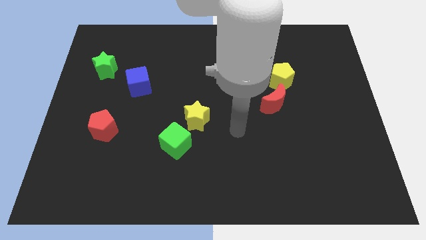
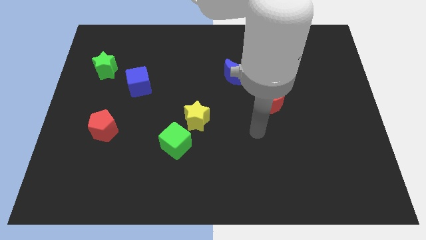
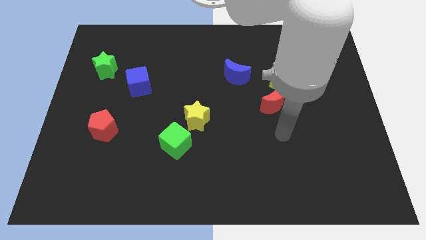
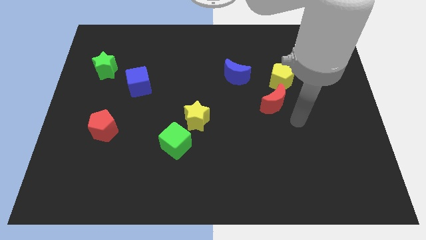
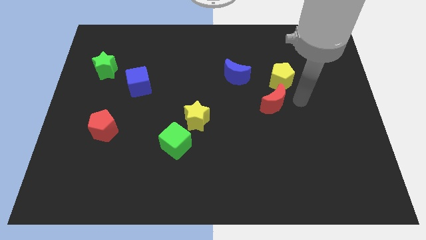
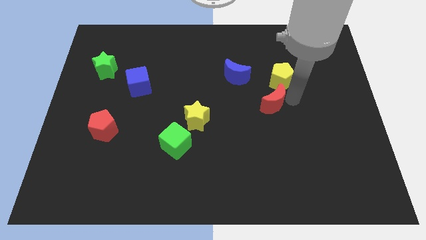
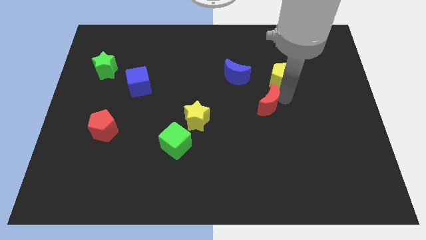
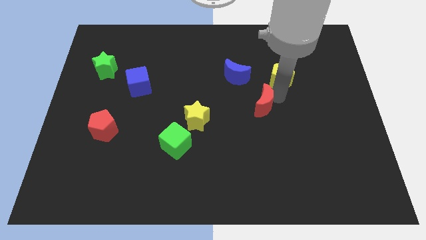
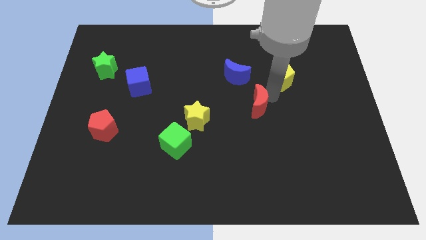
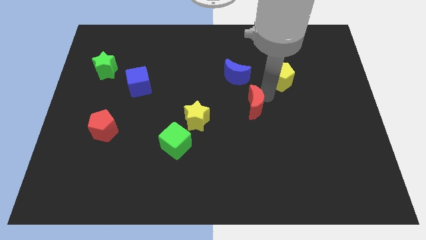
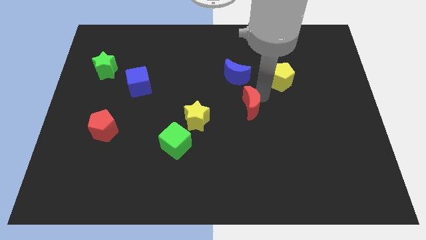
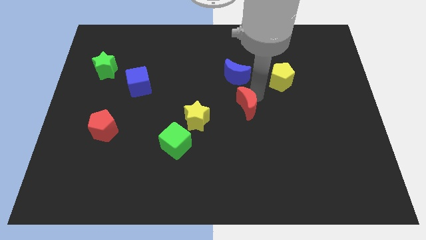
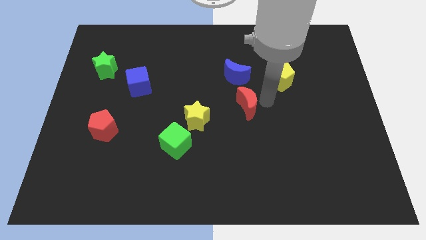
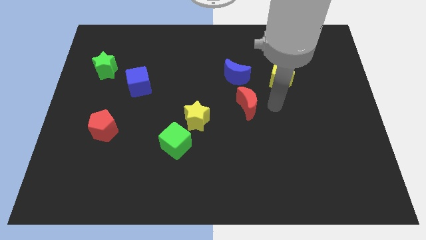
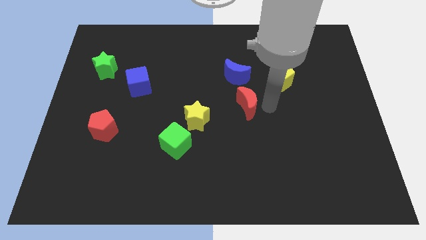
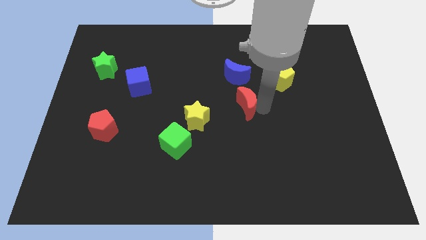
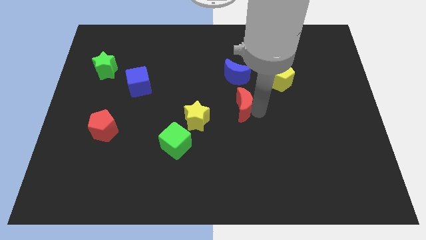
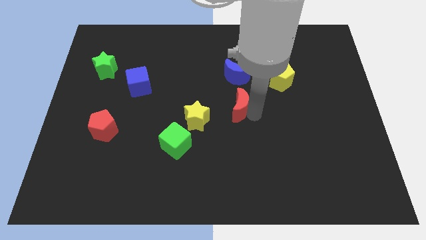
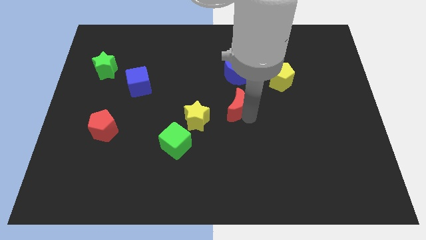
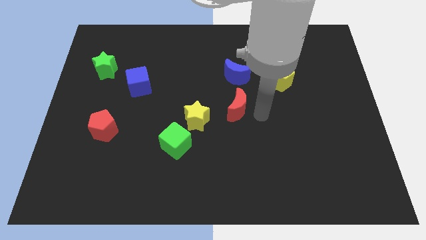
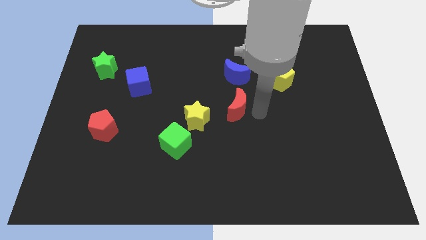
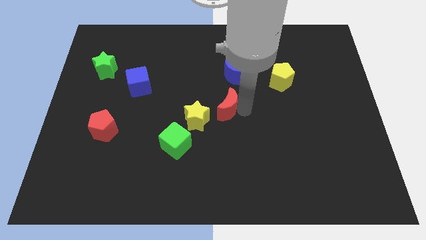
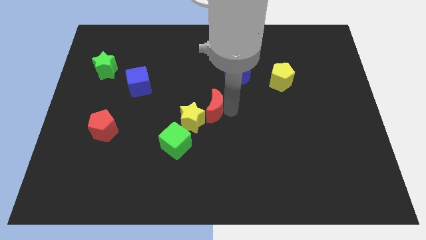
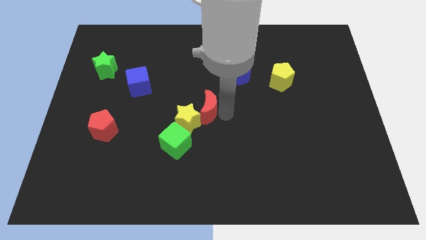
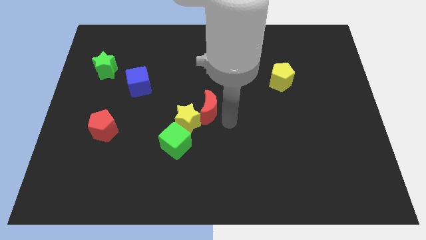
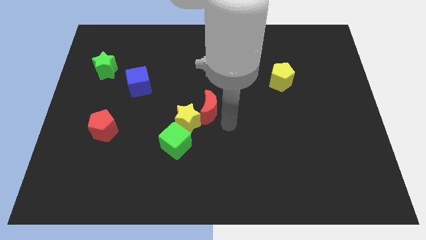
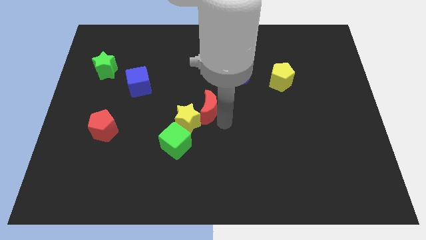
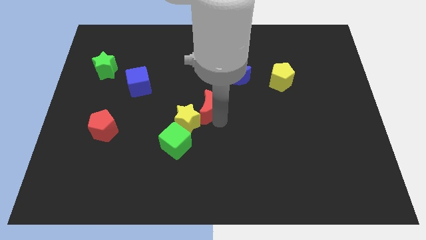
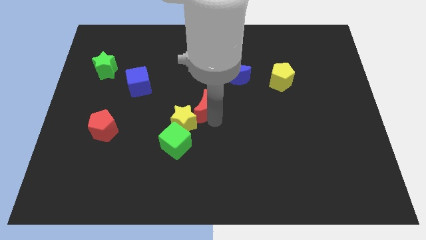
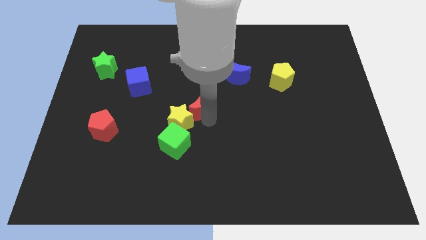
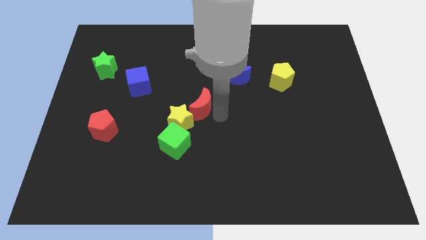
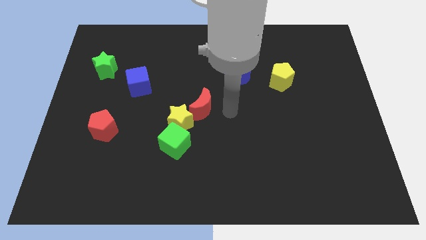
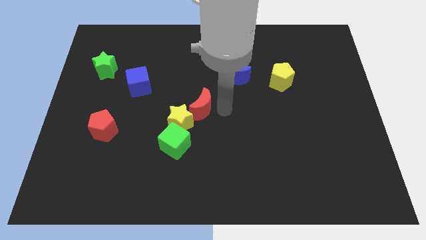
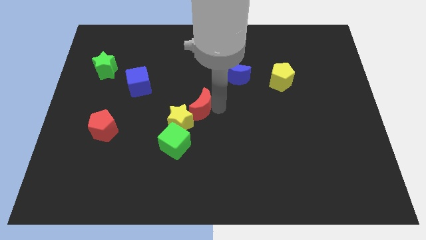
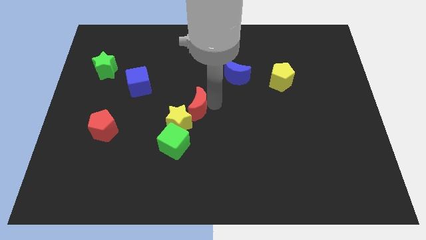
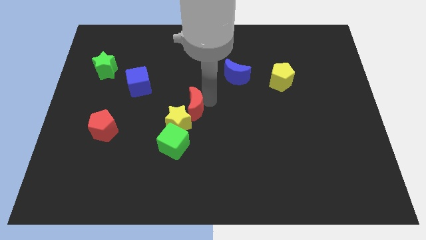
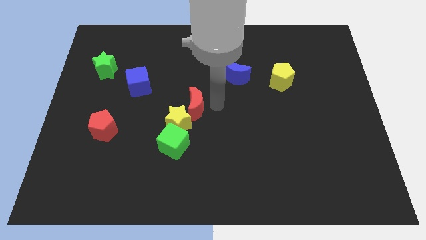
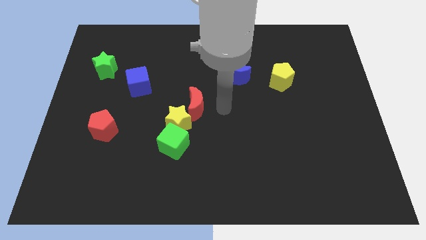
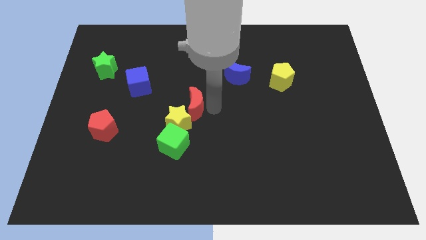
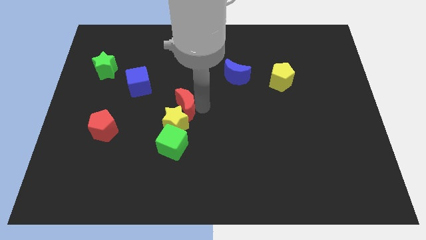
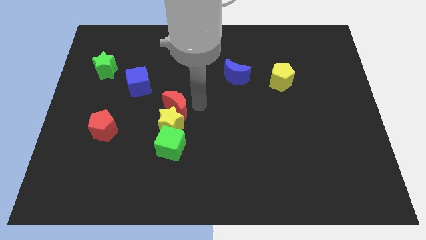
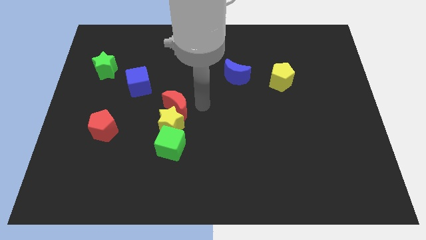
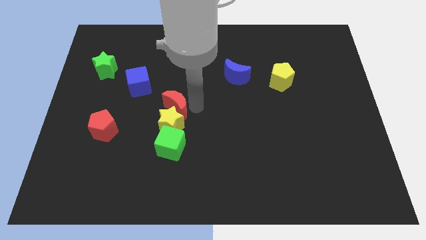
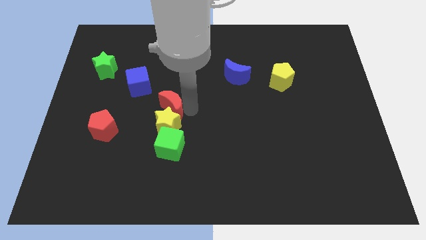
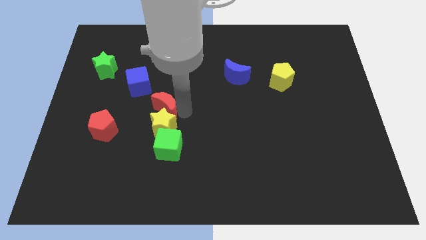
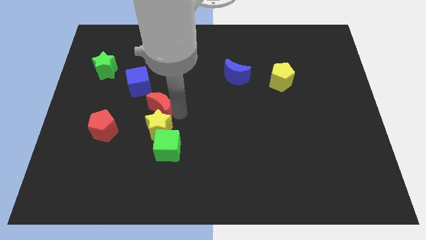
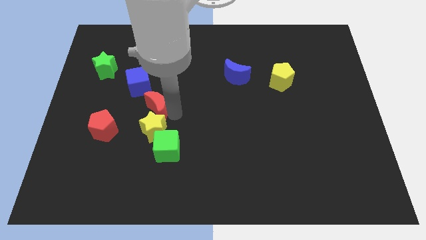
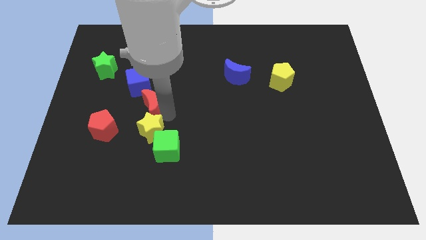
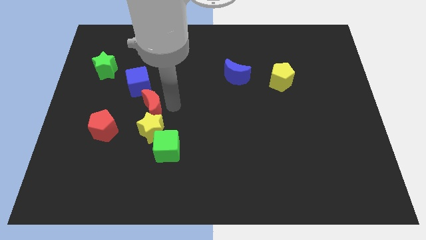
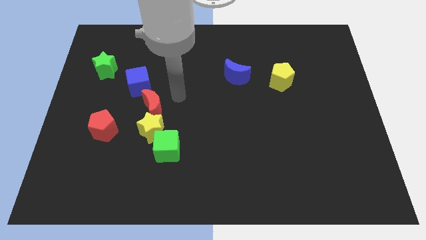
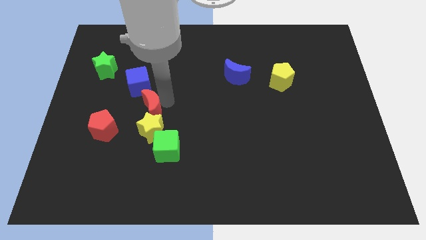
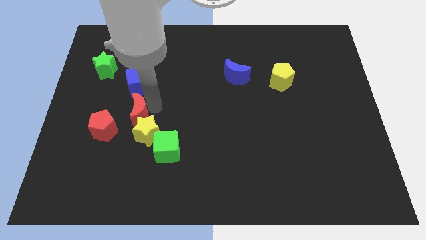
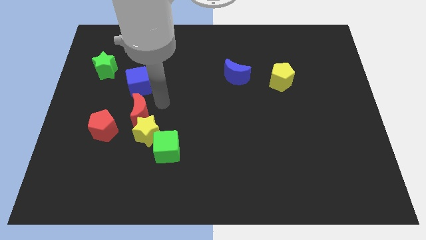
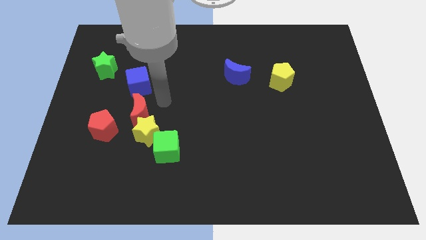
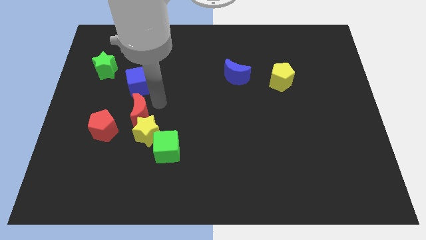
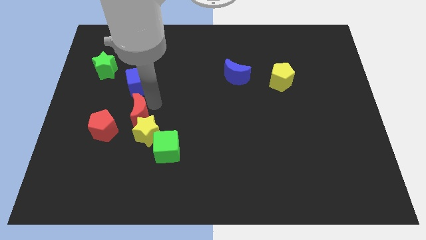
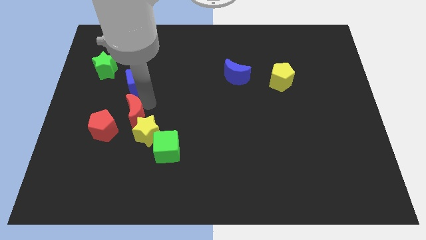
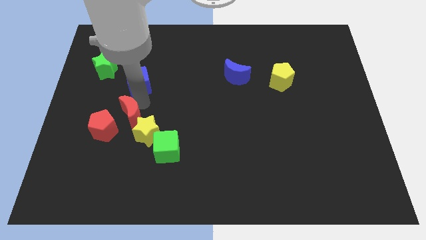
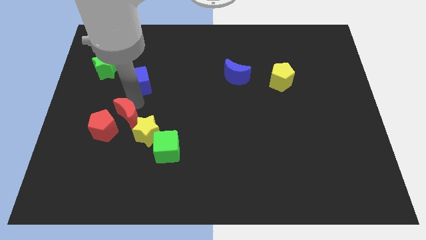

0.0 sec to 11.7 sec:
push the red moon to the red pentagon

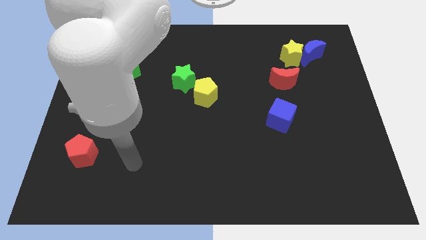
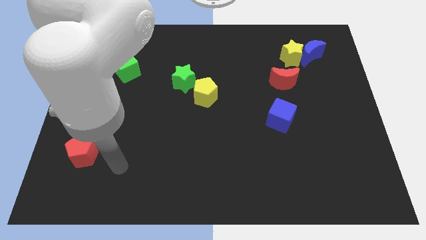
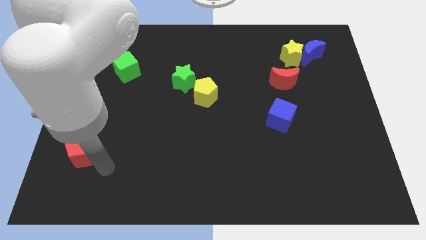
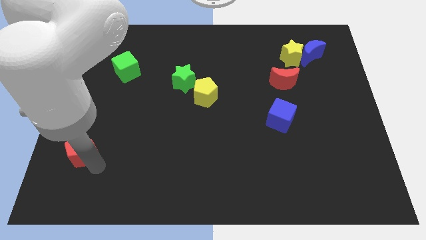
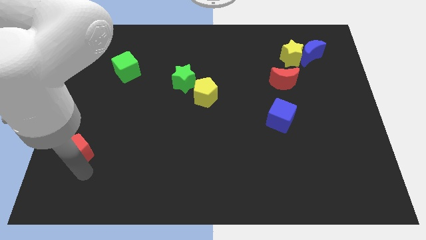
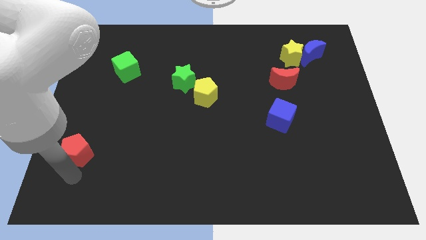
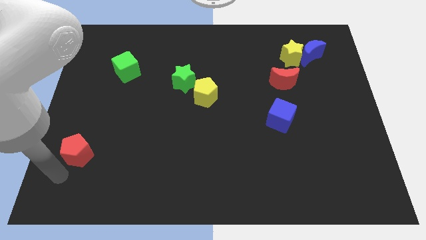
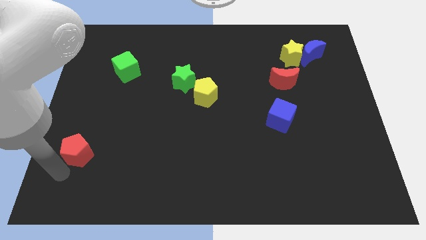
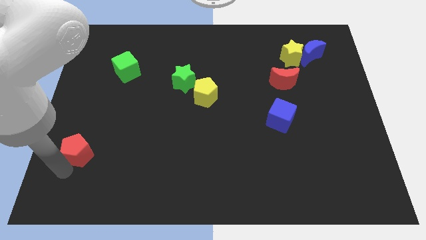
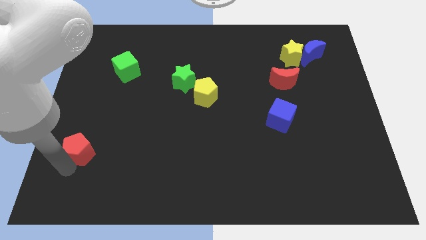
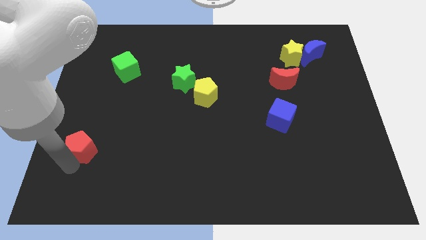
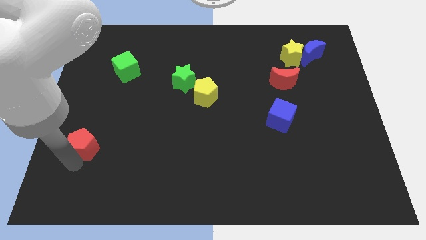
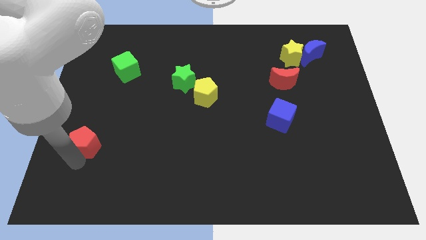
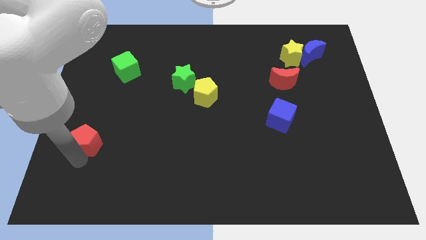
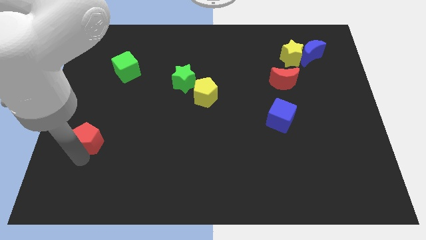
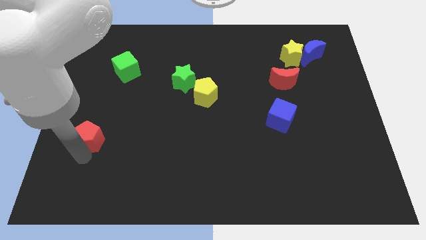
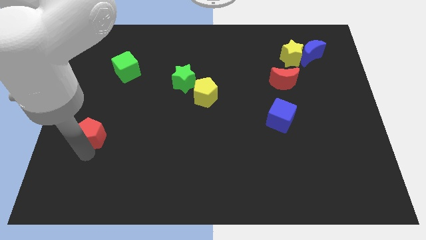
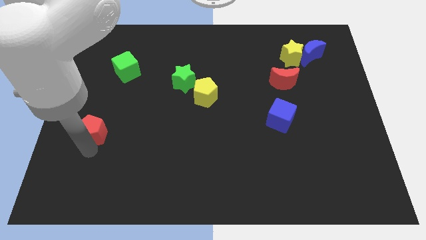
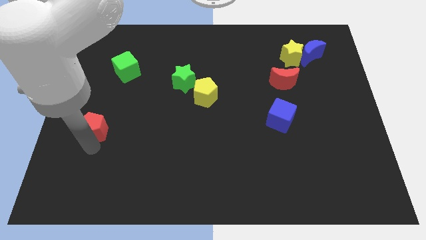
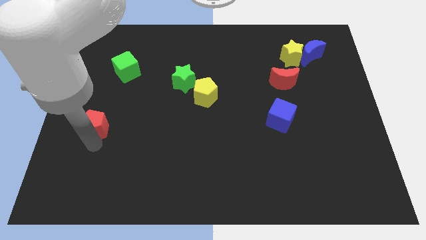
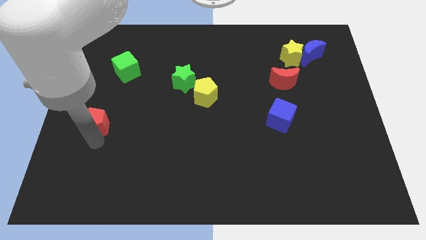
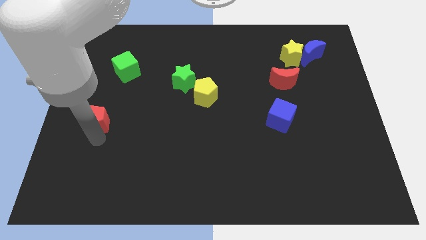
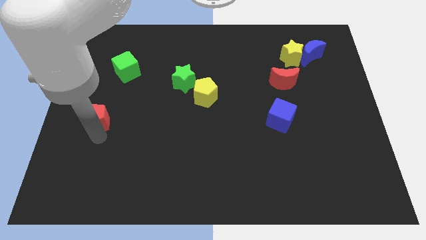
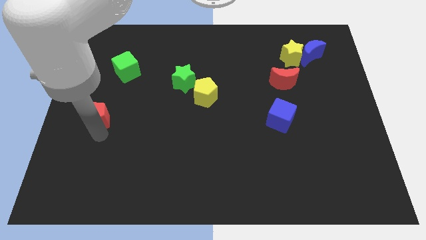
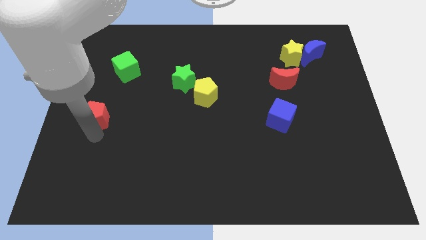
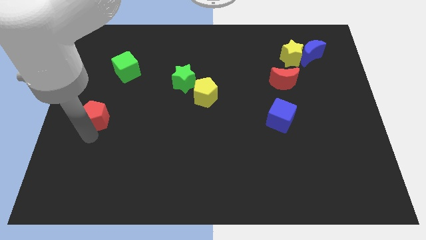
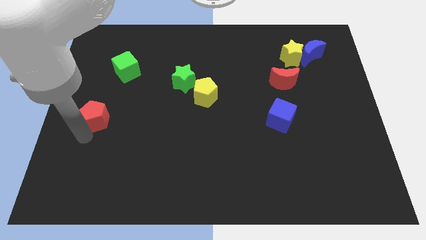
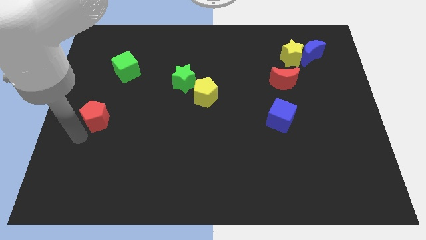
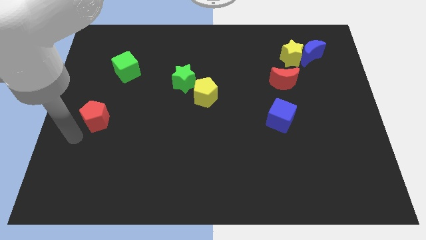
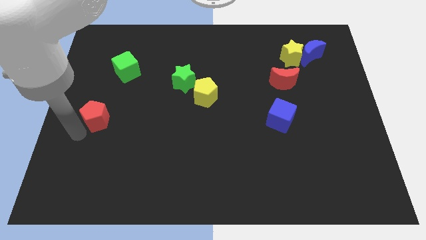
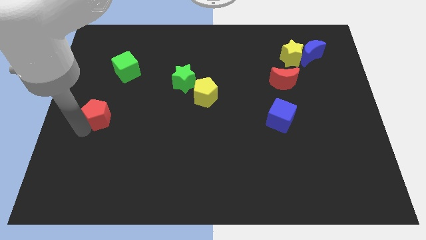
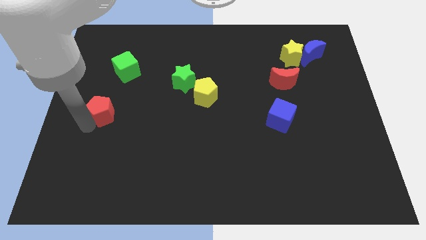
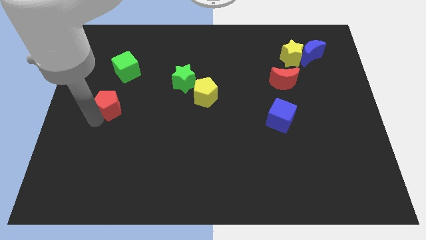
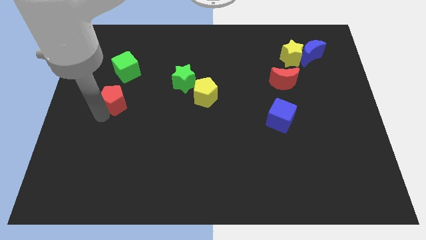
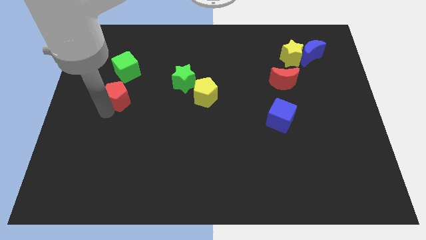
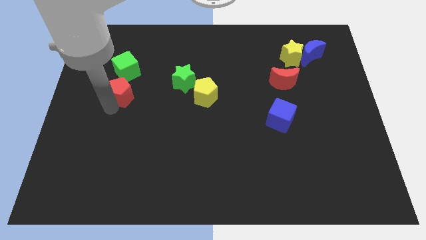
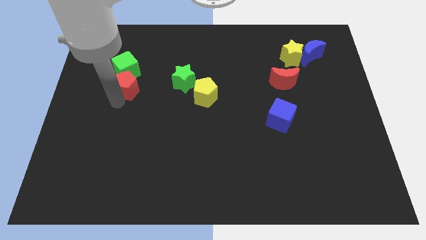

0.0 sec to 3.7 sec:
slide the red pentagon towards the green cube
